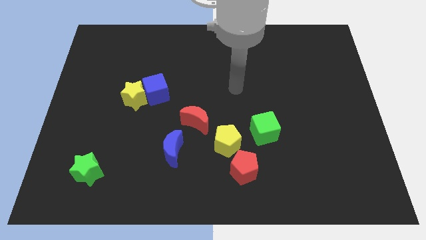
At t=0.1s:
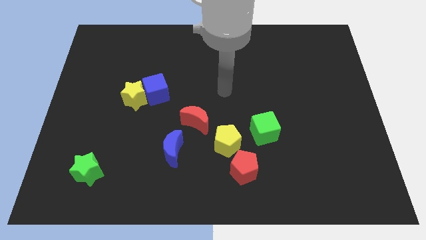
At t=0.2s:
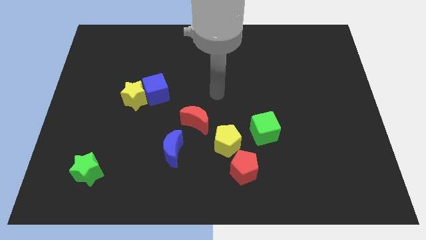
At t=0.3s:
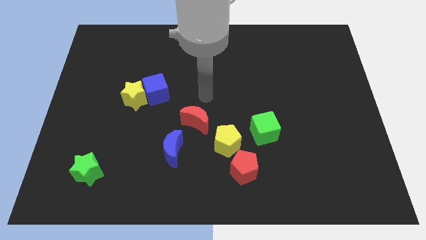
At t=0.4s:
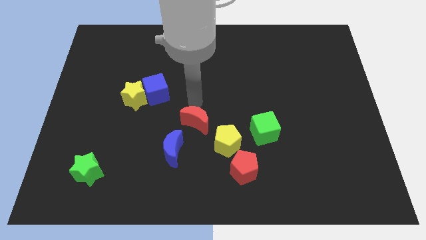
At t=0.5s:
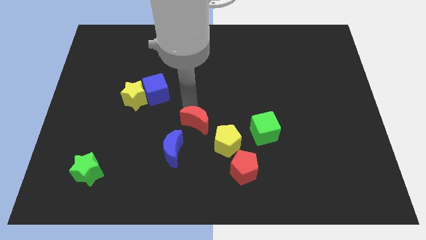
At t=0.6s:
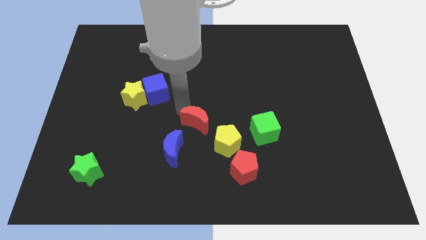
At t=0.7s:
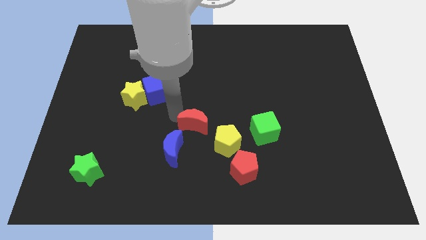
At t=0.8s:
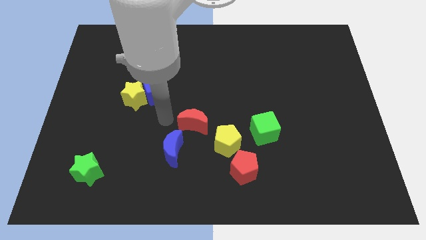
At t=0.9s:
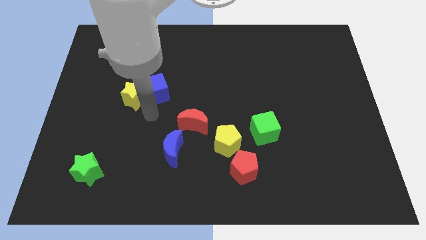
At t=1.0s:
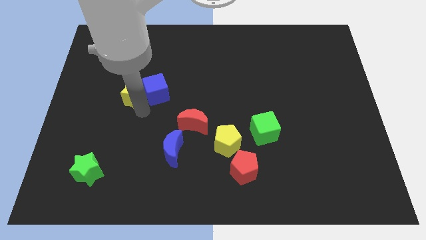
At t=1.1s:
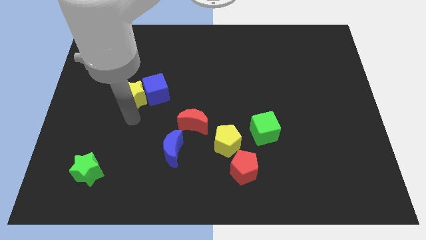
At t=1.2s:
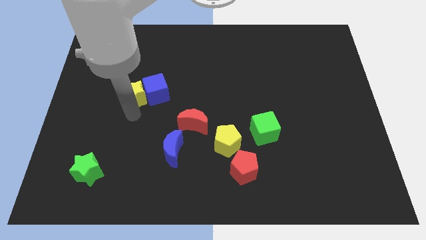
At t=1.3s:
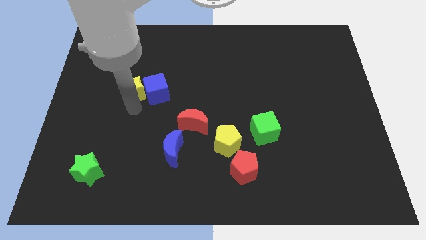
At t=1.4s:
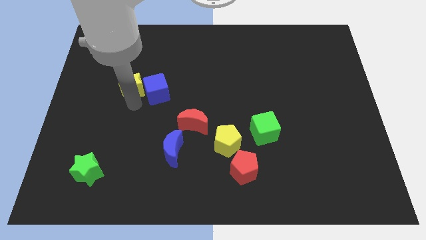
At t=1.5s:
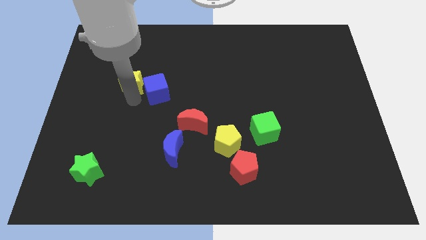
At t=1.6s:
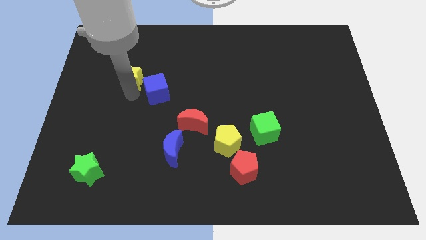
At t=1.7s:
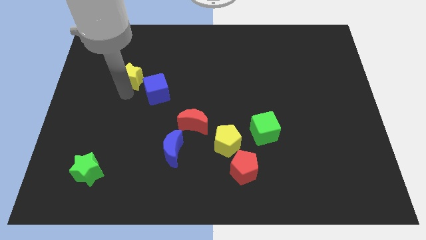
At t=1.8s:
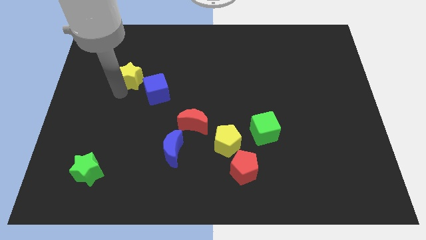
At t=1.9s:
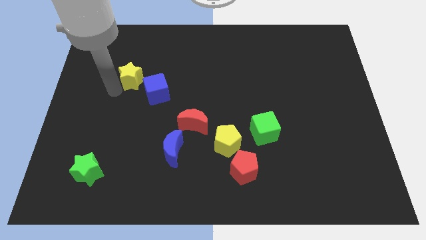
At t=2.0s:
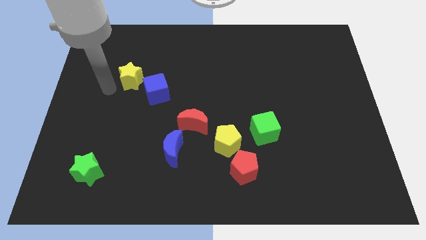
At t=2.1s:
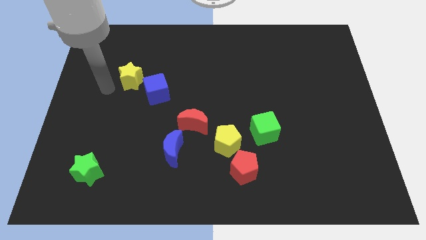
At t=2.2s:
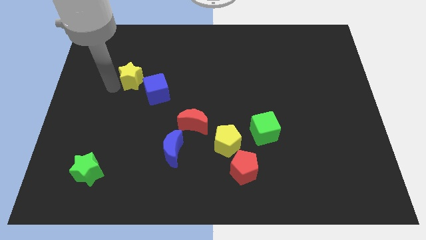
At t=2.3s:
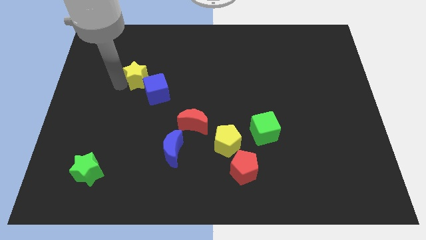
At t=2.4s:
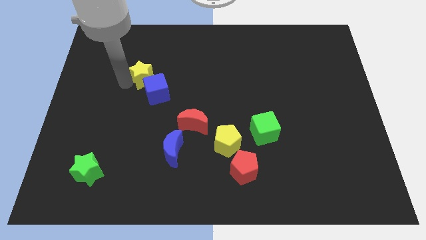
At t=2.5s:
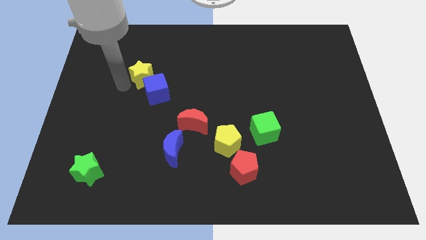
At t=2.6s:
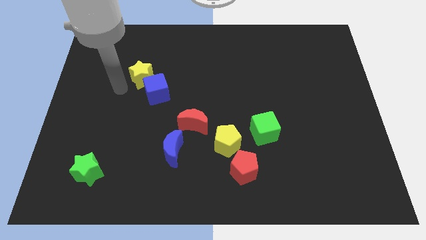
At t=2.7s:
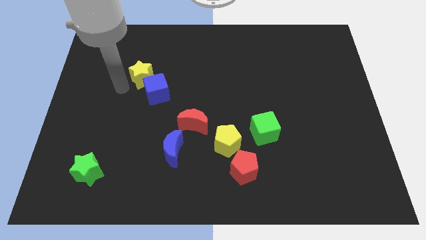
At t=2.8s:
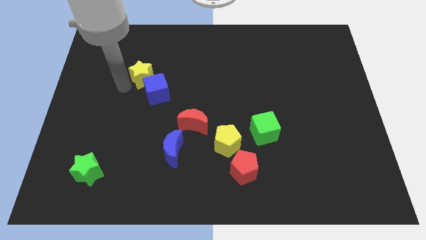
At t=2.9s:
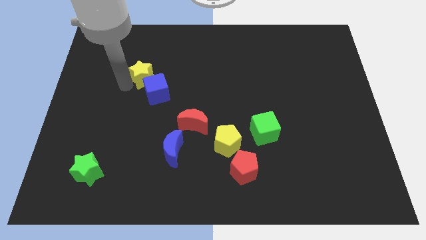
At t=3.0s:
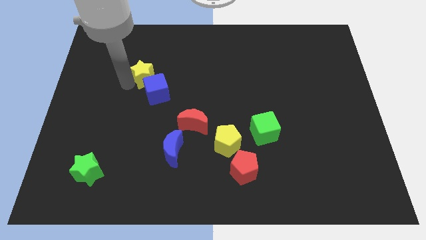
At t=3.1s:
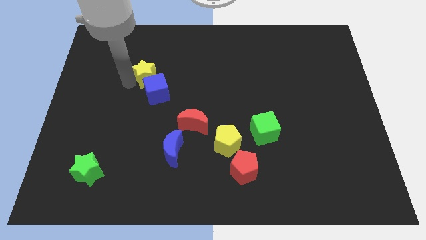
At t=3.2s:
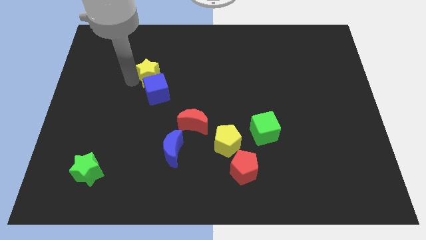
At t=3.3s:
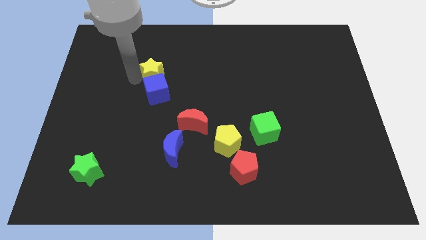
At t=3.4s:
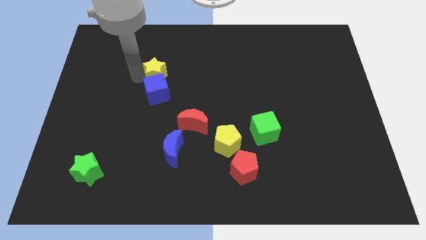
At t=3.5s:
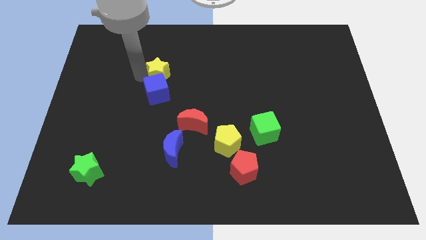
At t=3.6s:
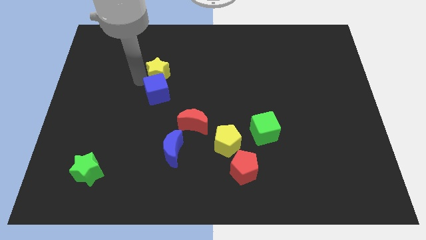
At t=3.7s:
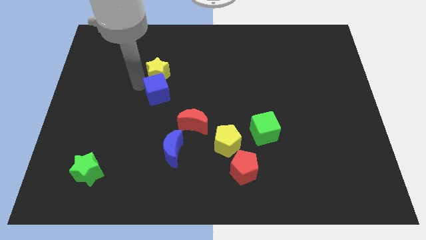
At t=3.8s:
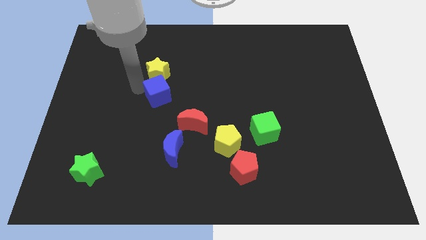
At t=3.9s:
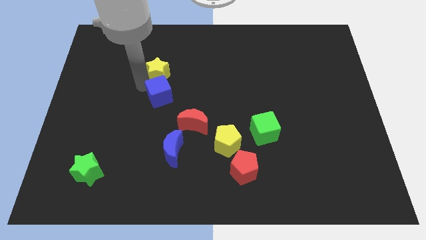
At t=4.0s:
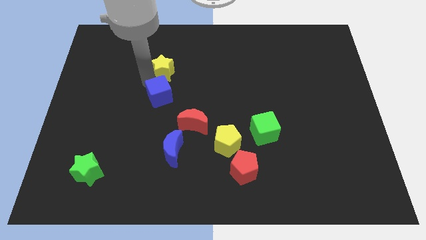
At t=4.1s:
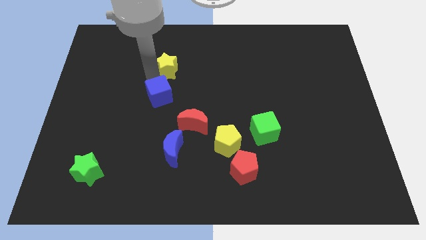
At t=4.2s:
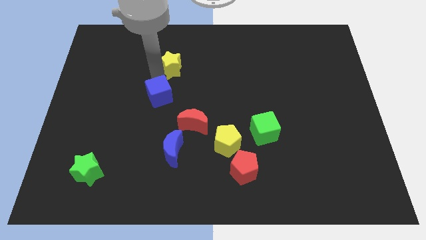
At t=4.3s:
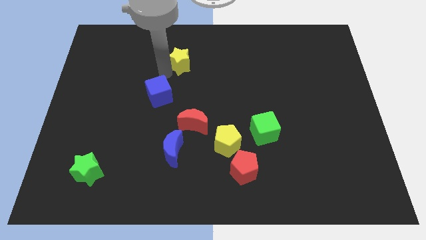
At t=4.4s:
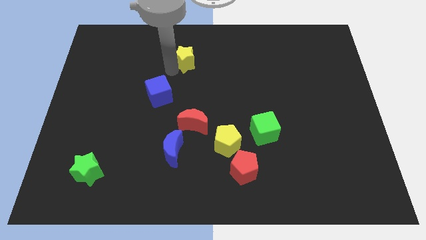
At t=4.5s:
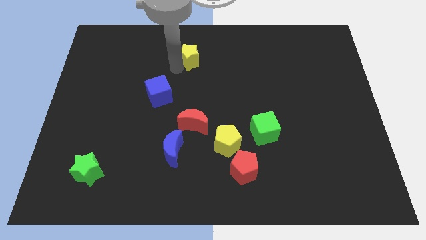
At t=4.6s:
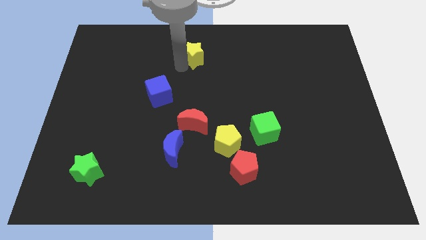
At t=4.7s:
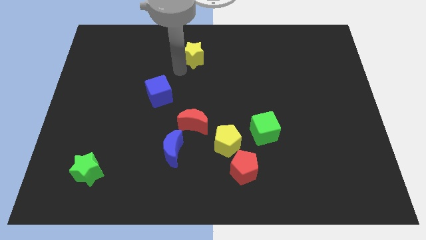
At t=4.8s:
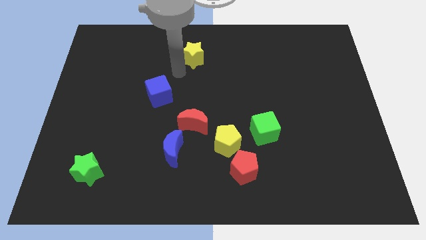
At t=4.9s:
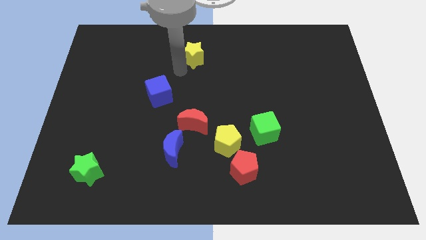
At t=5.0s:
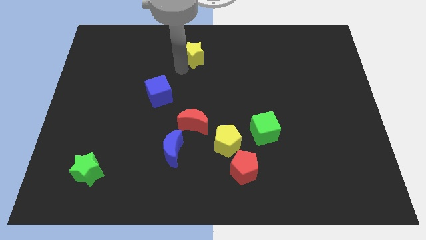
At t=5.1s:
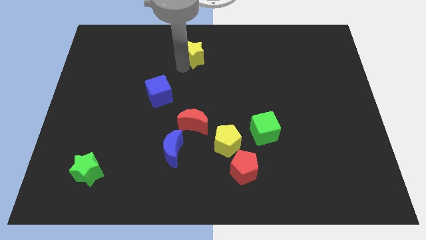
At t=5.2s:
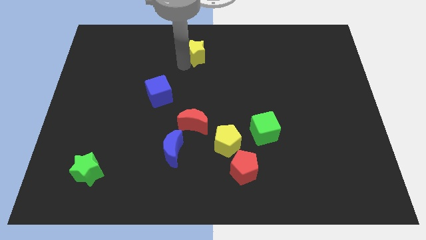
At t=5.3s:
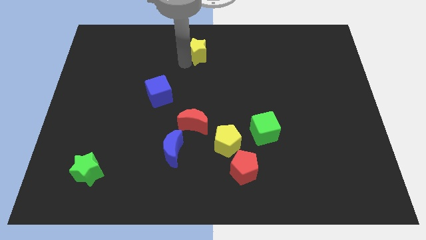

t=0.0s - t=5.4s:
slide the yellow star to the top side

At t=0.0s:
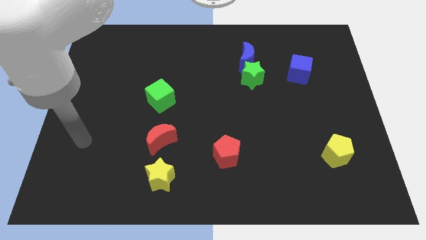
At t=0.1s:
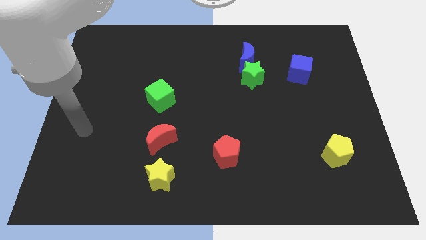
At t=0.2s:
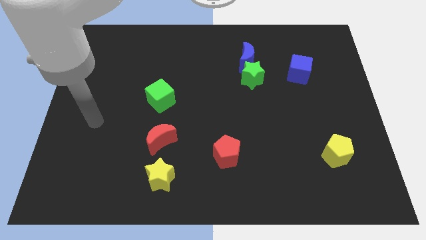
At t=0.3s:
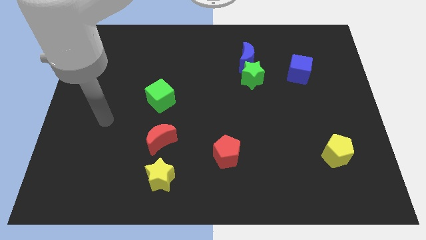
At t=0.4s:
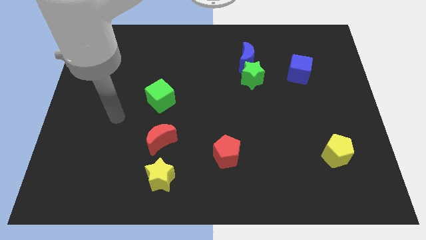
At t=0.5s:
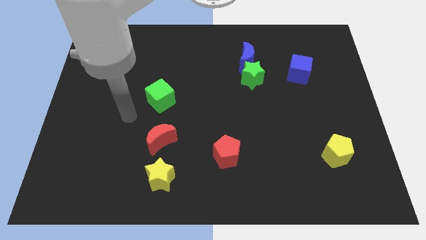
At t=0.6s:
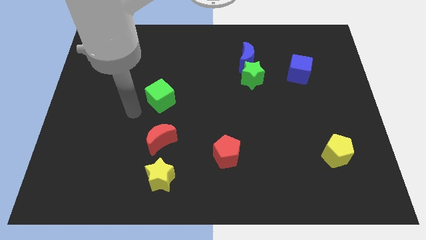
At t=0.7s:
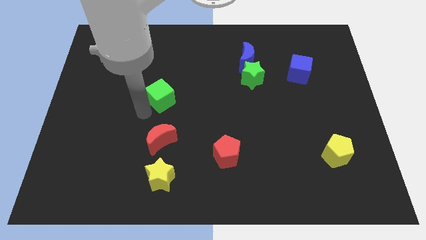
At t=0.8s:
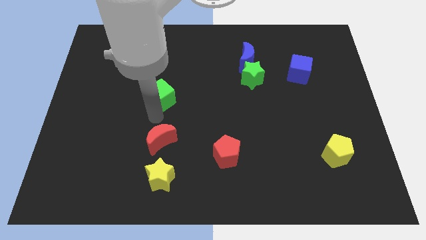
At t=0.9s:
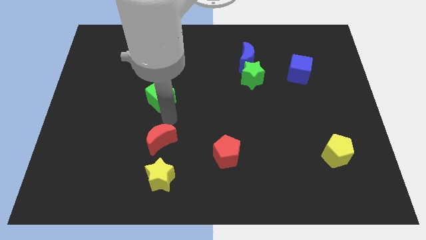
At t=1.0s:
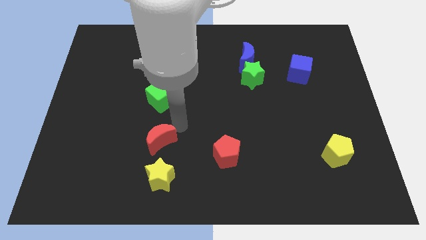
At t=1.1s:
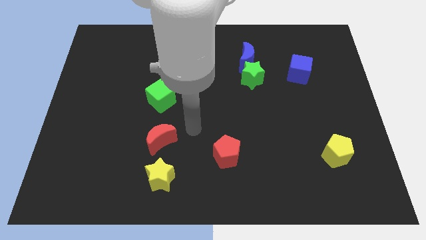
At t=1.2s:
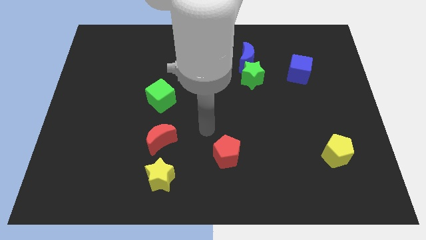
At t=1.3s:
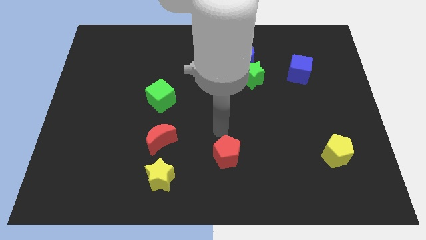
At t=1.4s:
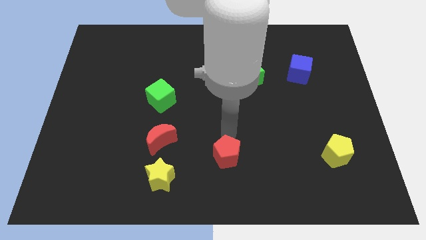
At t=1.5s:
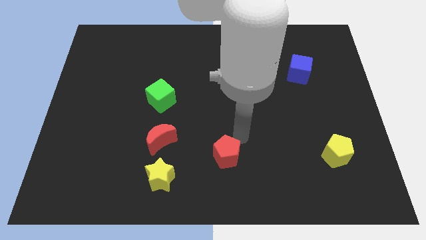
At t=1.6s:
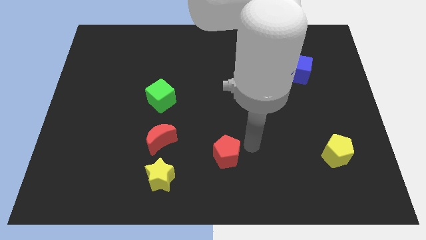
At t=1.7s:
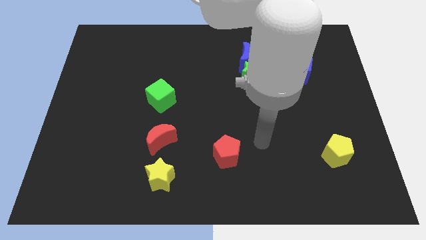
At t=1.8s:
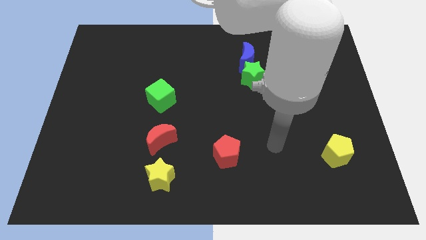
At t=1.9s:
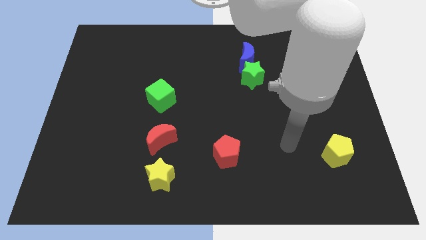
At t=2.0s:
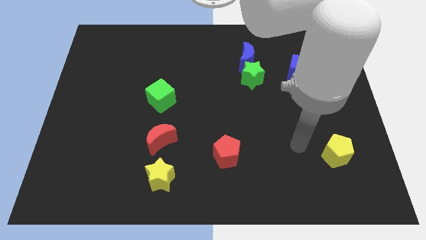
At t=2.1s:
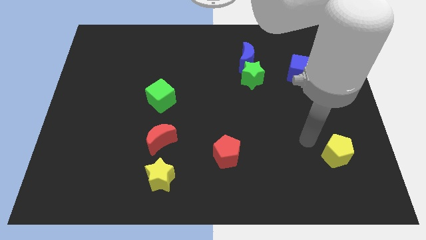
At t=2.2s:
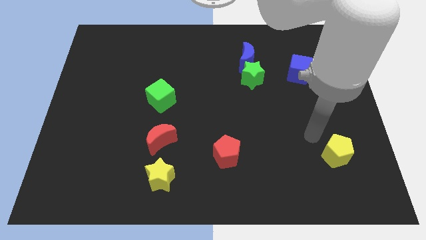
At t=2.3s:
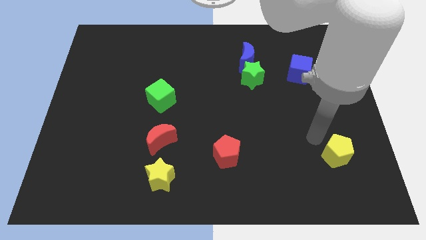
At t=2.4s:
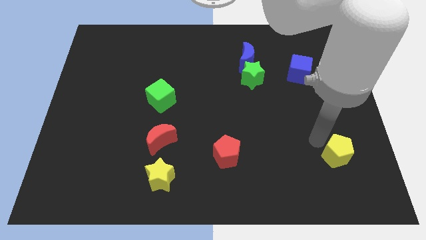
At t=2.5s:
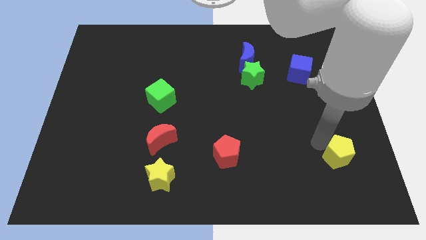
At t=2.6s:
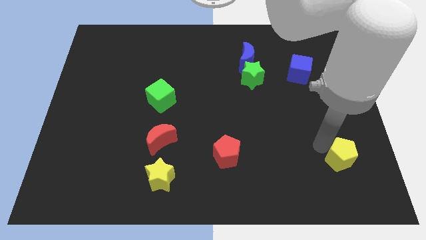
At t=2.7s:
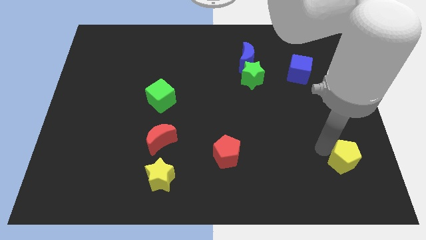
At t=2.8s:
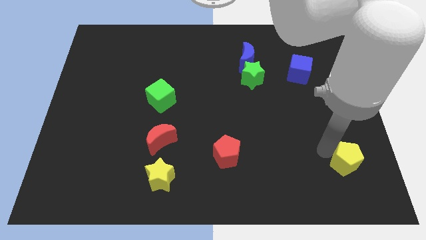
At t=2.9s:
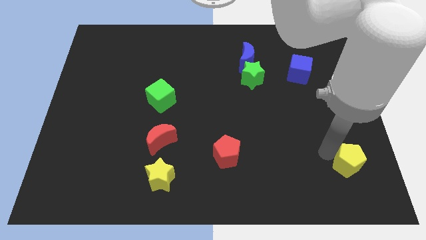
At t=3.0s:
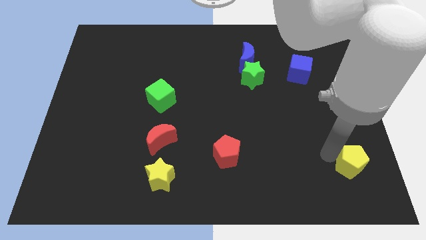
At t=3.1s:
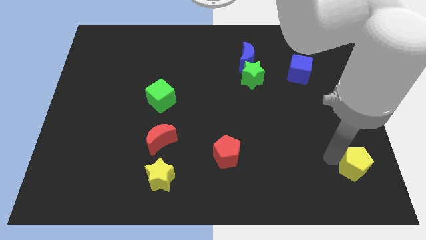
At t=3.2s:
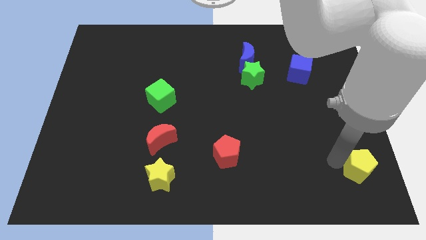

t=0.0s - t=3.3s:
push the yellow pentagon to the bottom right of the board
